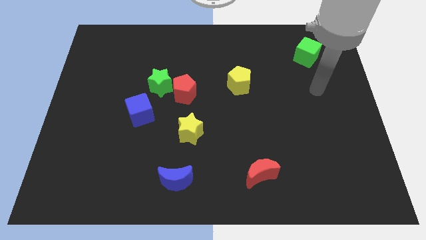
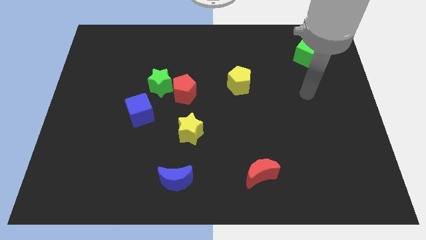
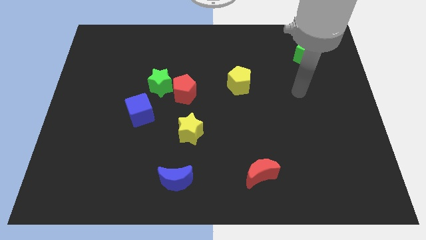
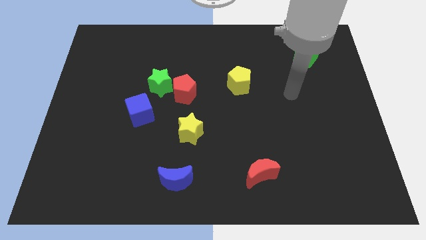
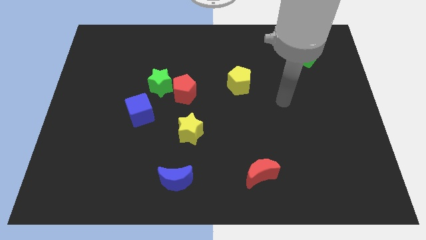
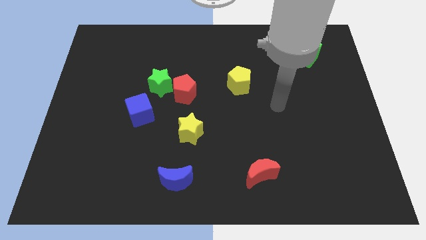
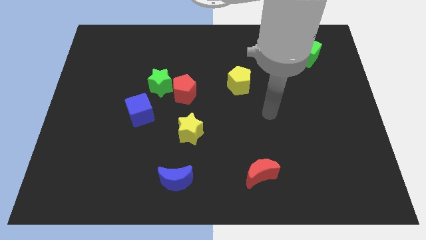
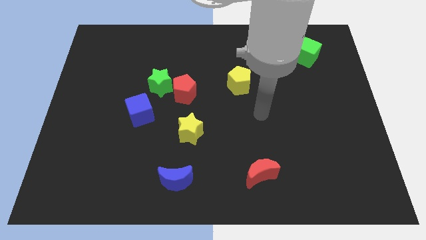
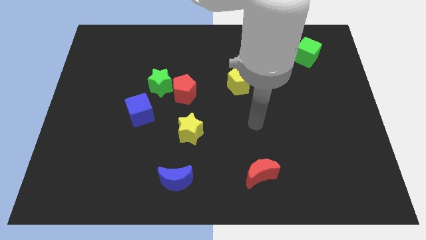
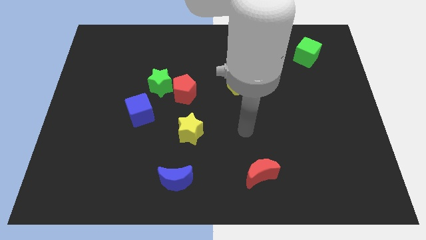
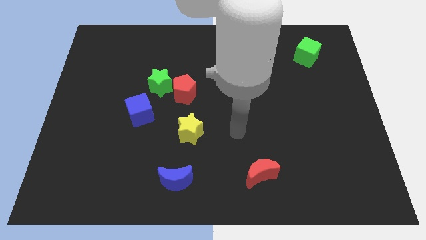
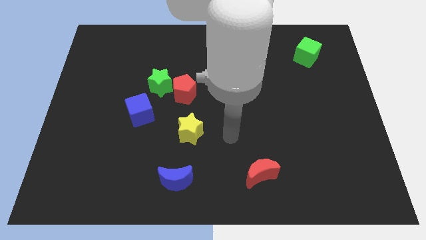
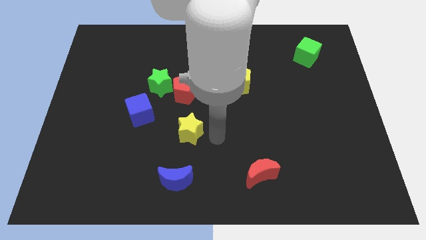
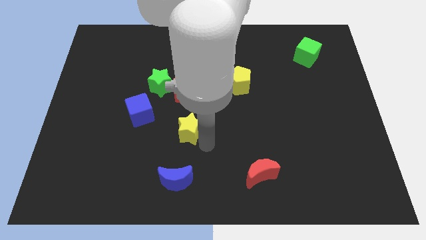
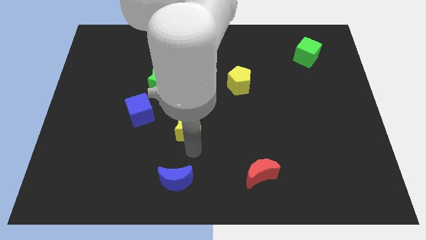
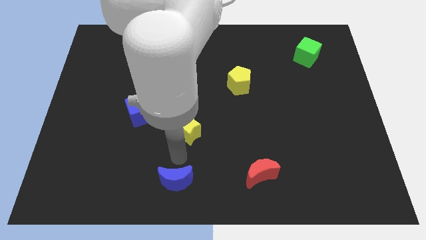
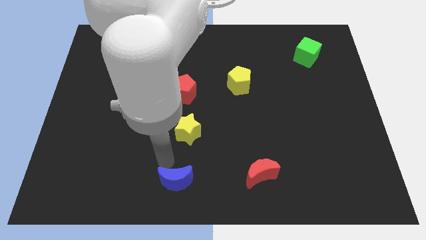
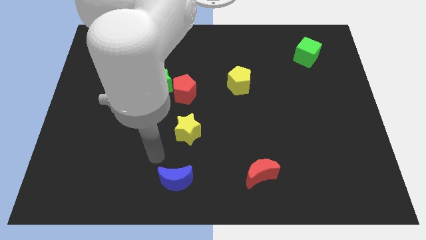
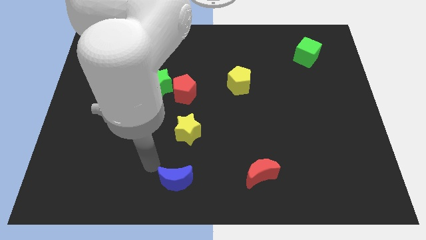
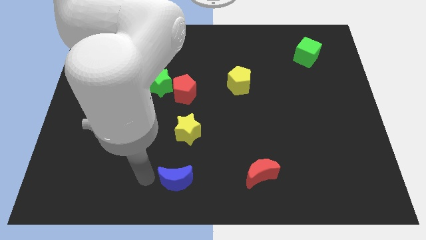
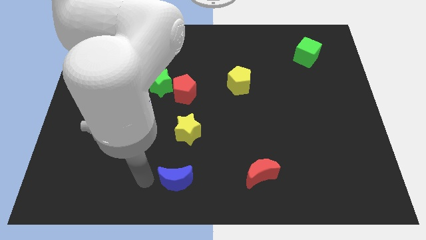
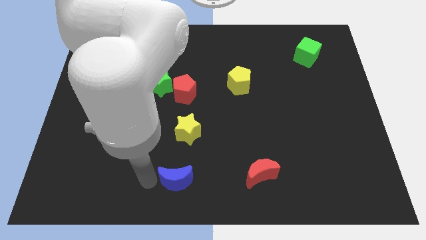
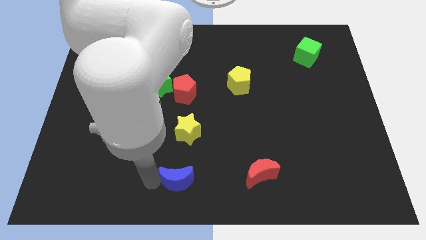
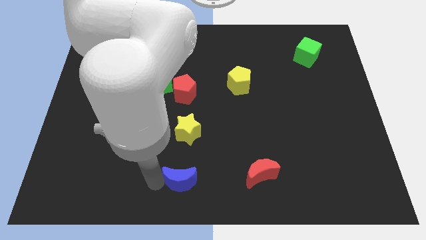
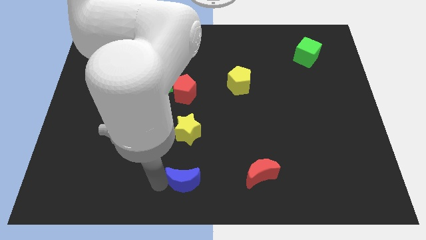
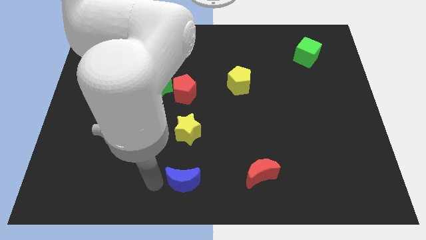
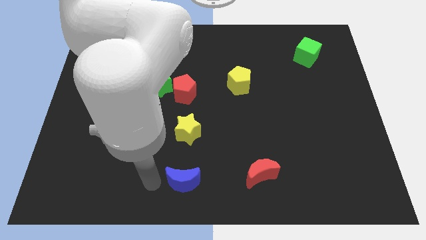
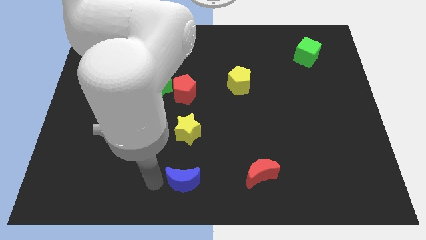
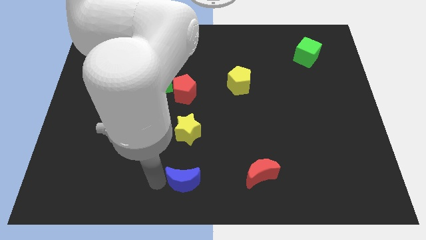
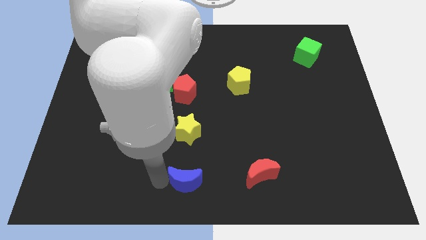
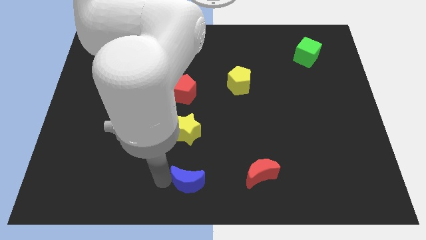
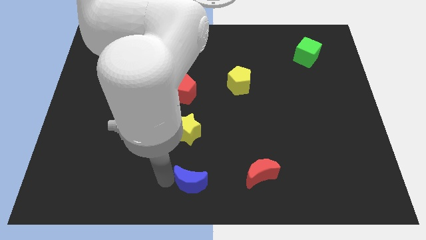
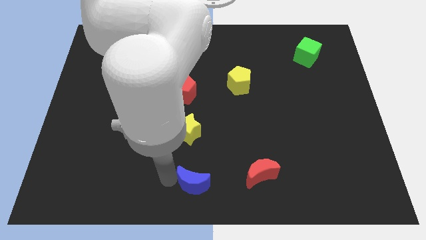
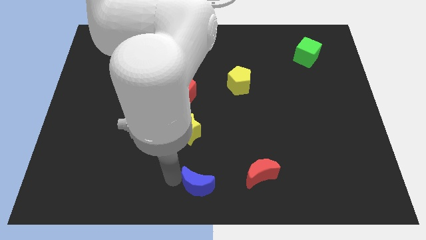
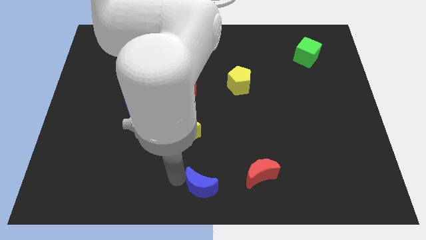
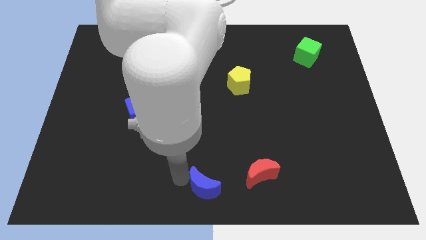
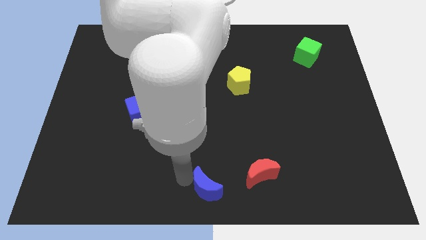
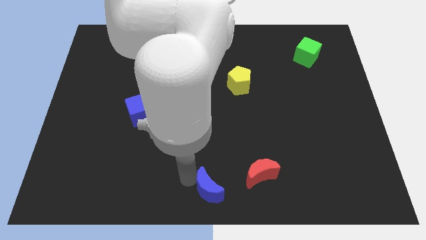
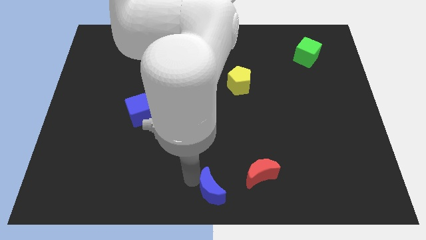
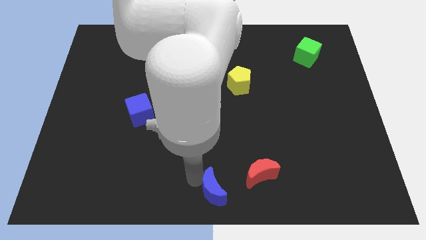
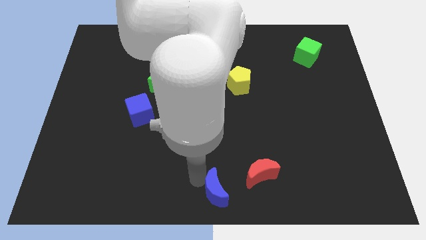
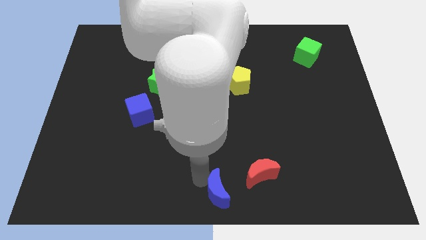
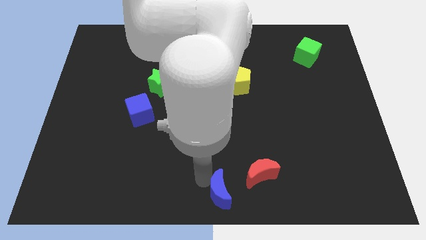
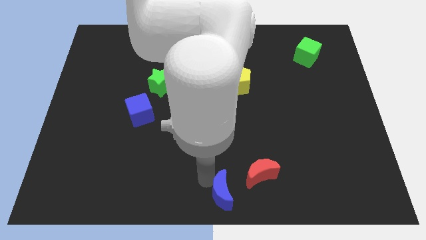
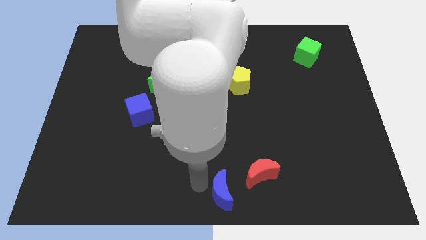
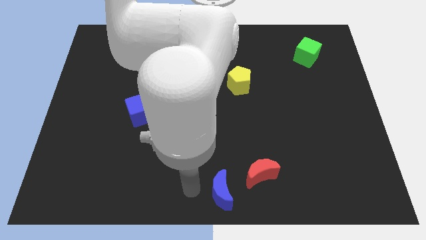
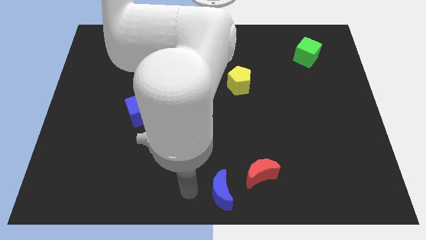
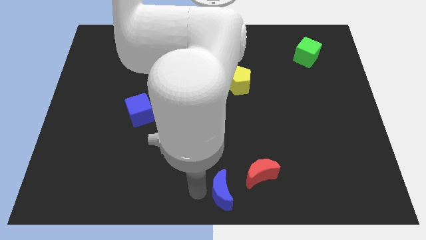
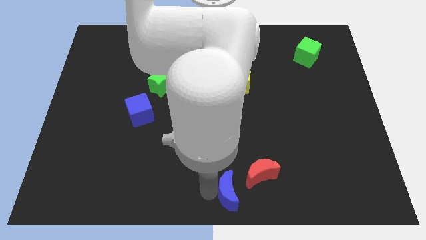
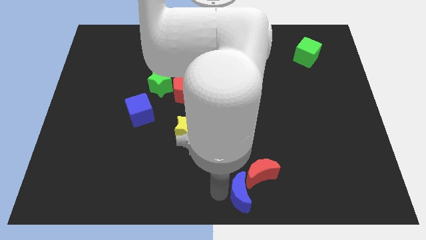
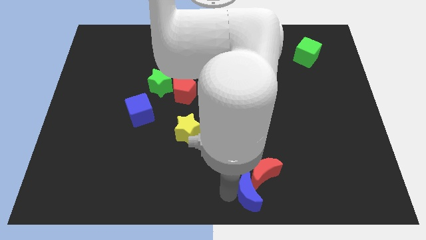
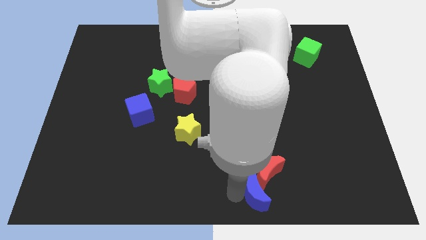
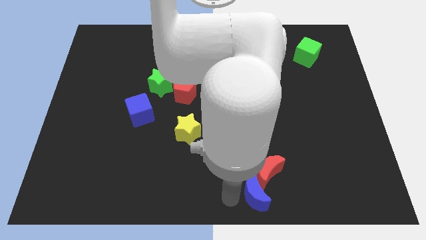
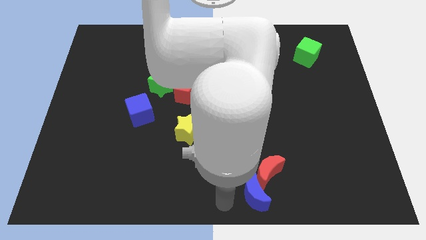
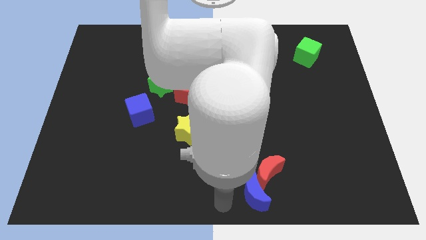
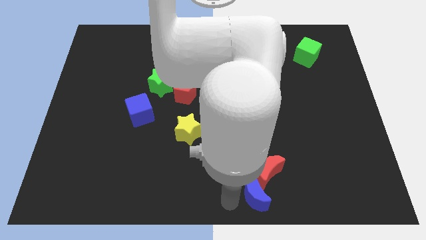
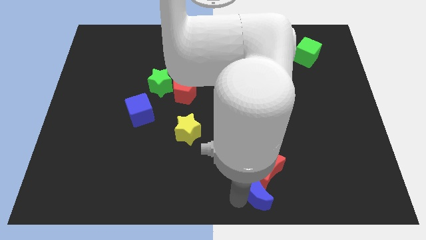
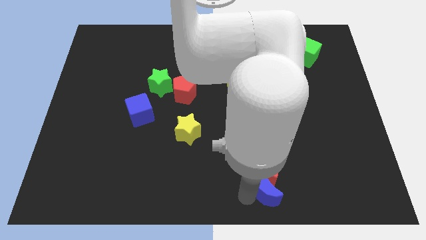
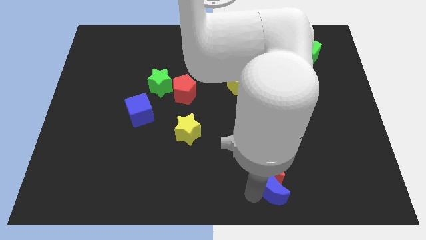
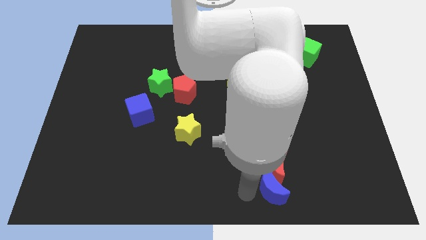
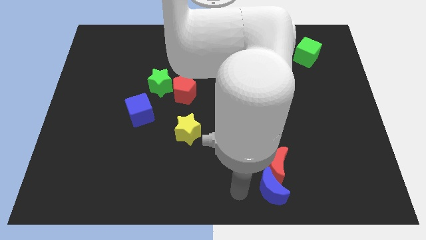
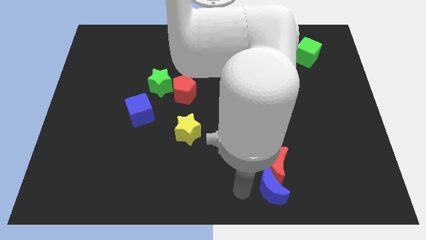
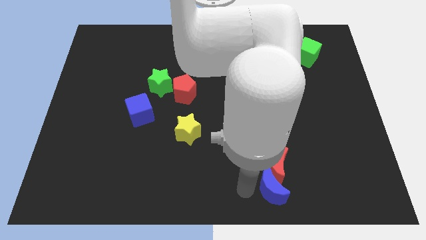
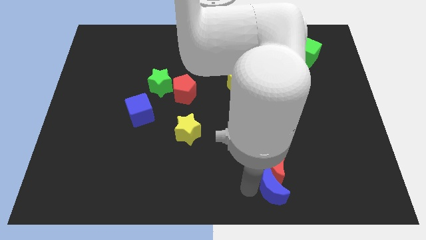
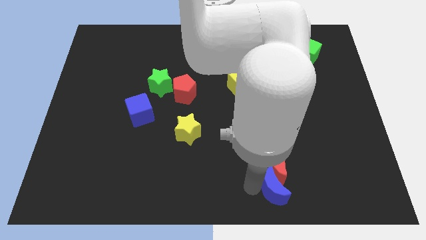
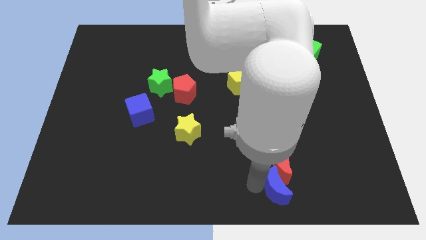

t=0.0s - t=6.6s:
move the blue moon right

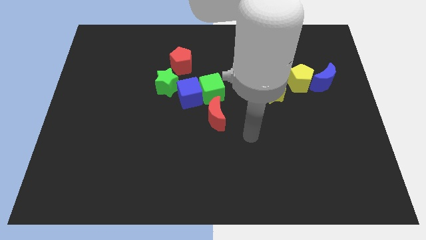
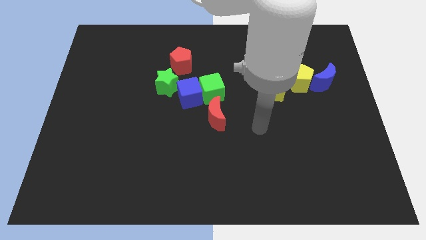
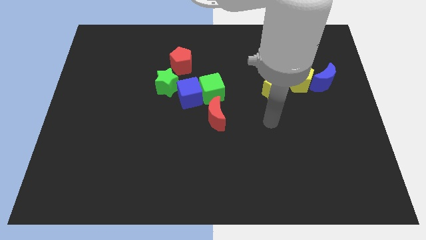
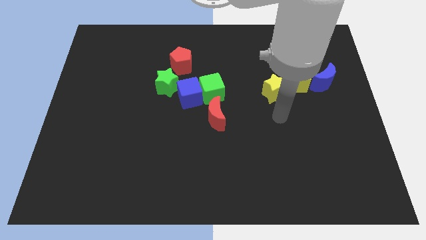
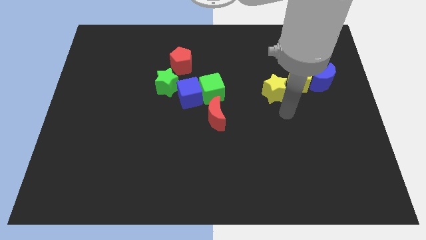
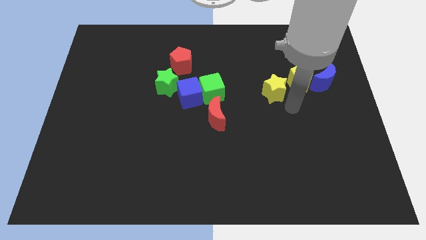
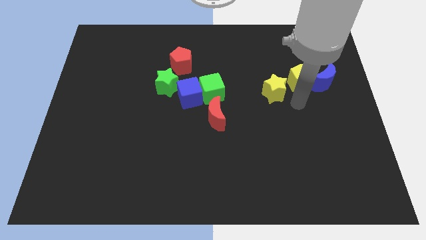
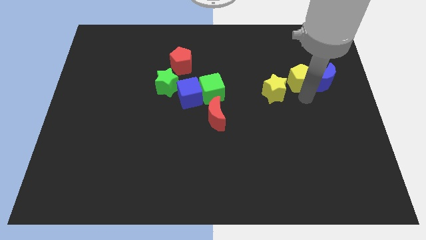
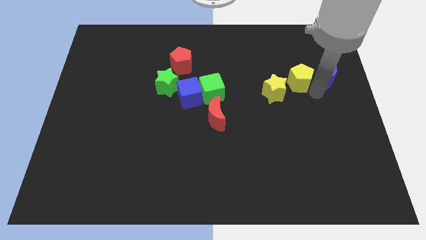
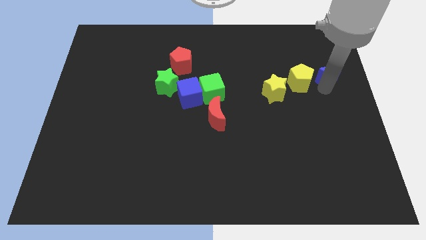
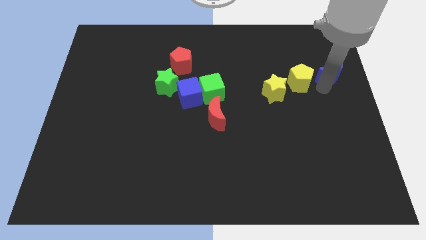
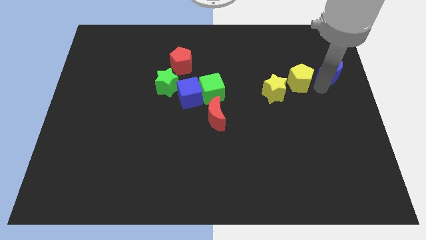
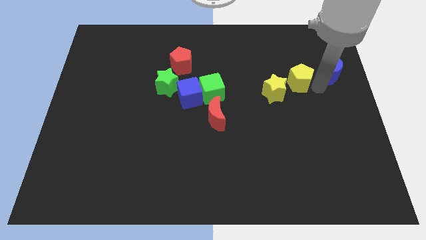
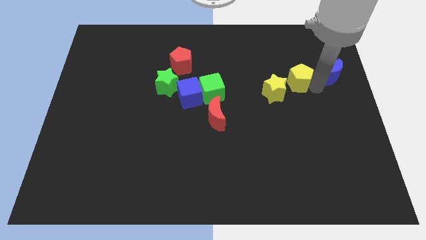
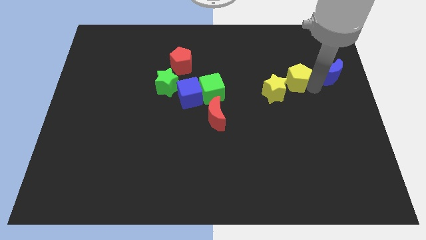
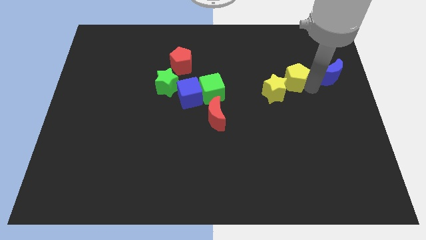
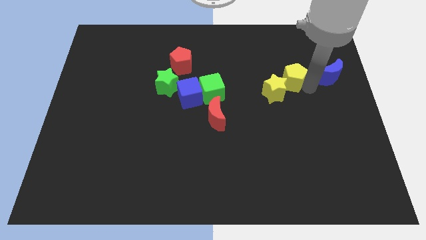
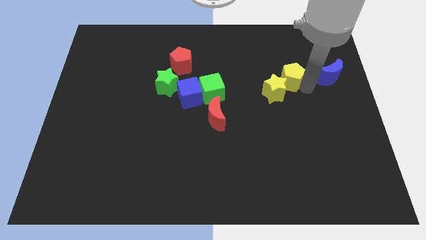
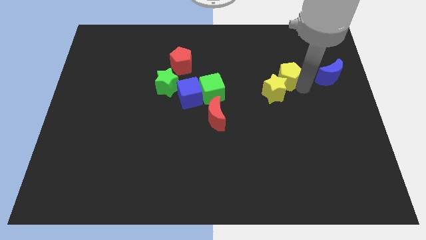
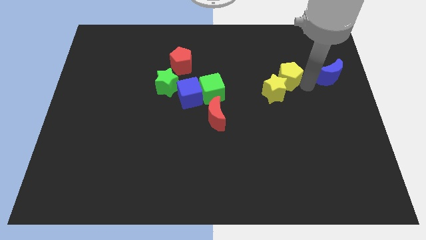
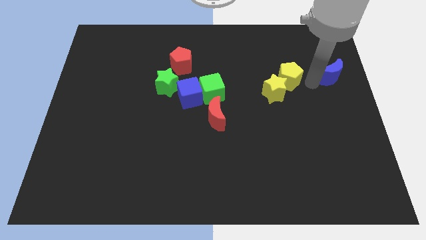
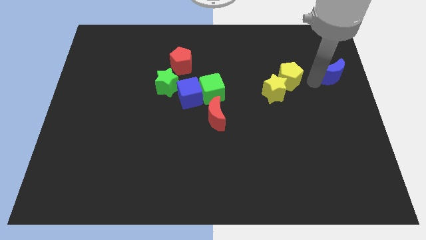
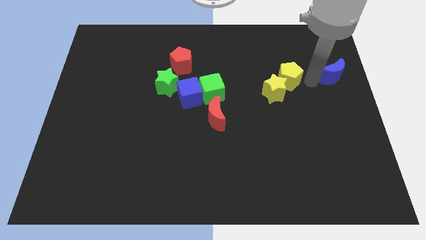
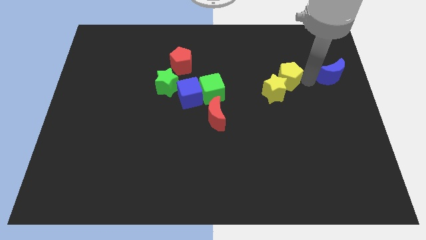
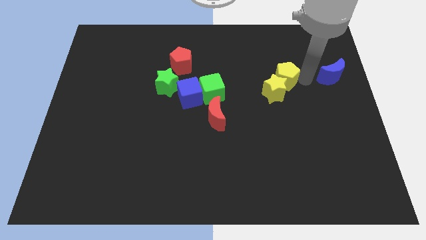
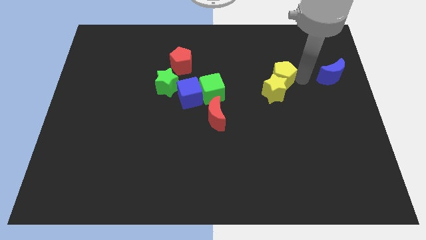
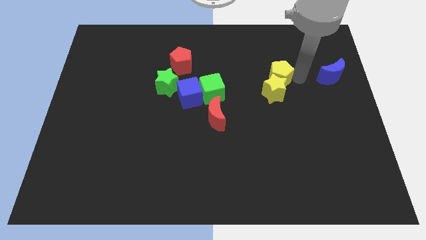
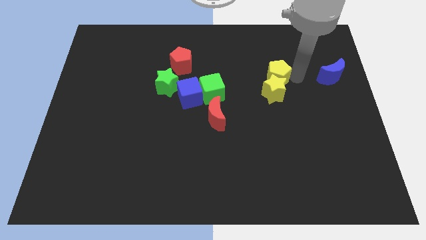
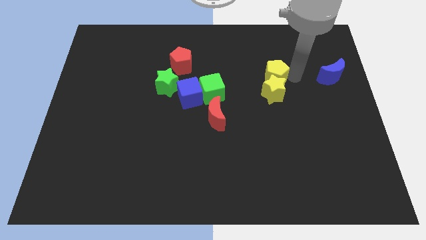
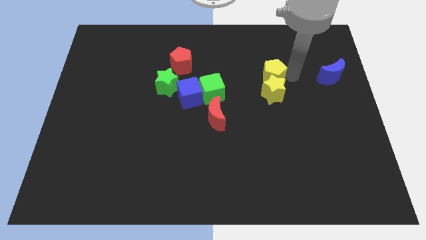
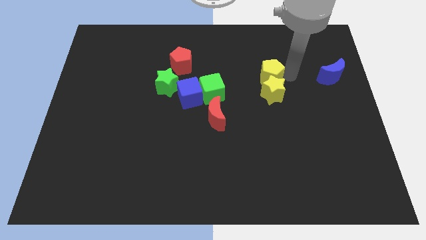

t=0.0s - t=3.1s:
slightly move the yellow pentagon to the left
